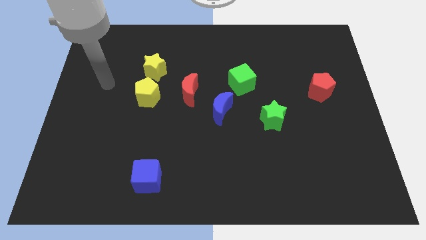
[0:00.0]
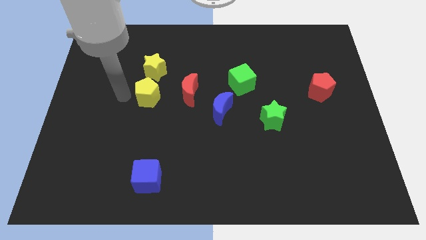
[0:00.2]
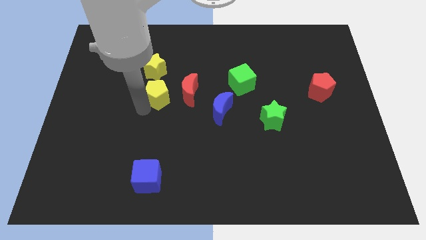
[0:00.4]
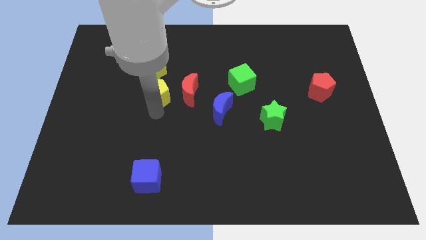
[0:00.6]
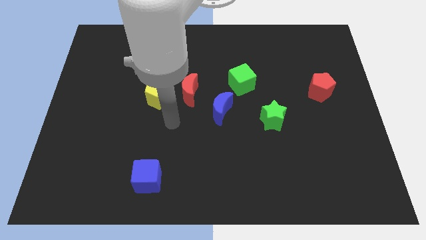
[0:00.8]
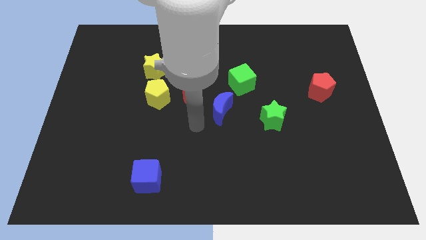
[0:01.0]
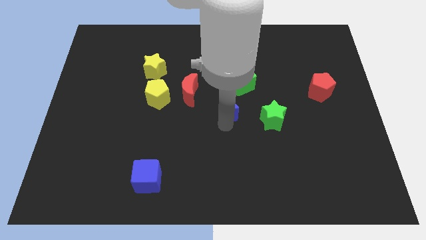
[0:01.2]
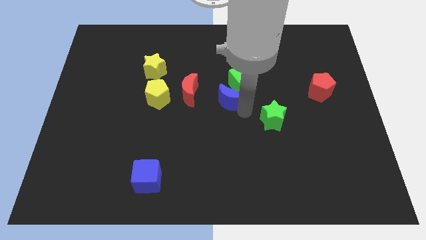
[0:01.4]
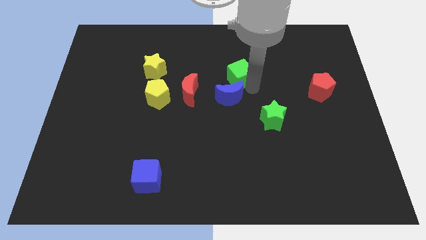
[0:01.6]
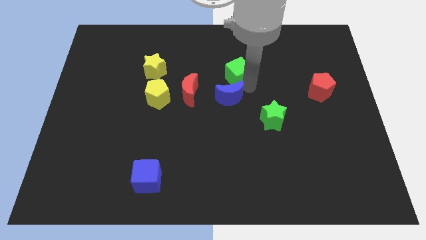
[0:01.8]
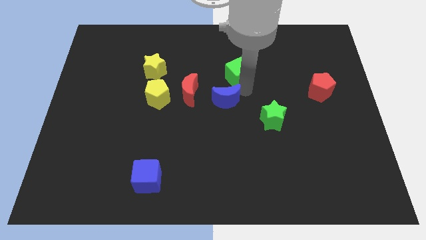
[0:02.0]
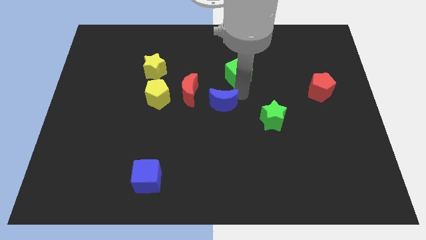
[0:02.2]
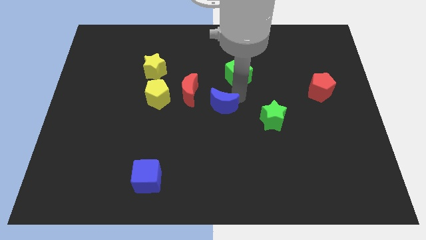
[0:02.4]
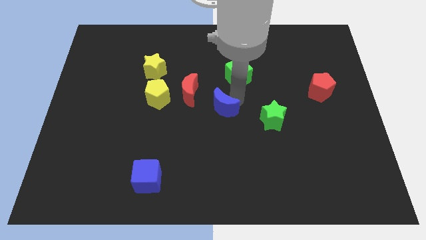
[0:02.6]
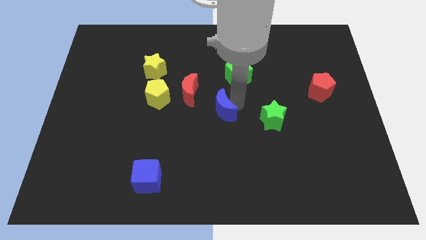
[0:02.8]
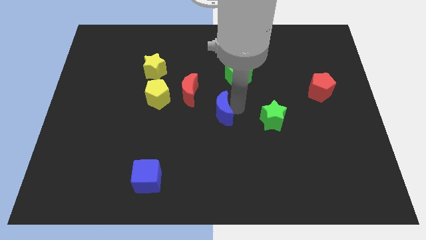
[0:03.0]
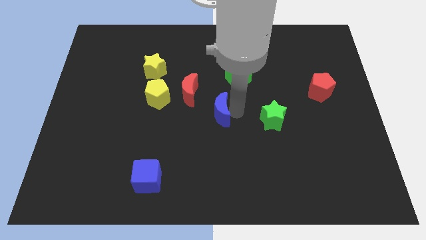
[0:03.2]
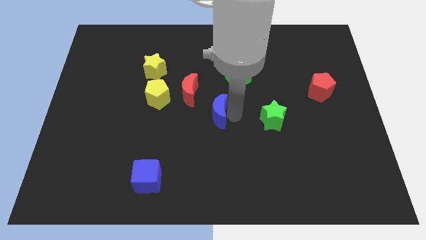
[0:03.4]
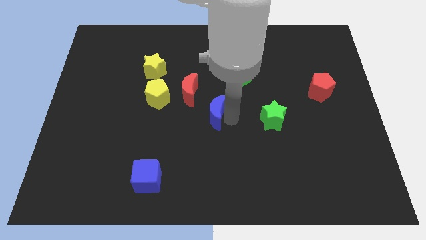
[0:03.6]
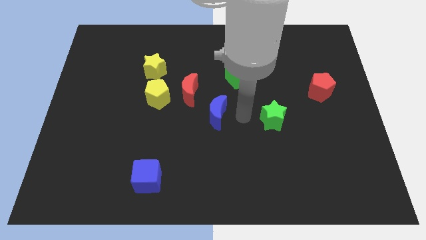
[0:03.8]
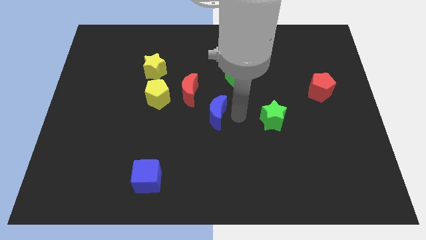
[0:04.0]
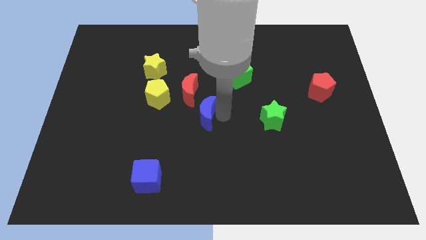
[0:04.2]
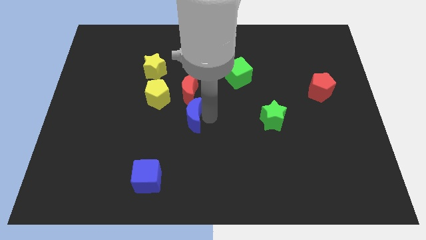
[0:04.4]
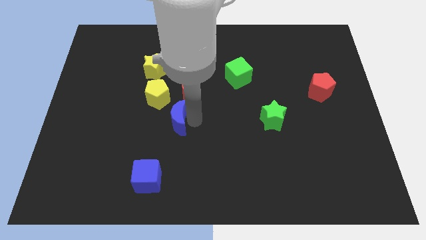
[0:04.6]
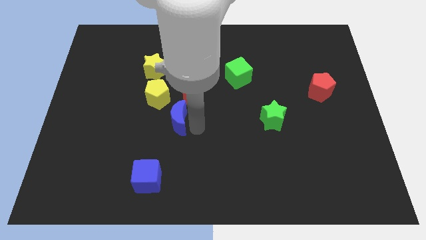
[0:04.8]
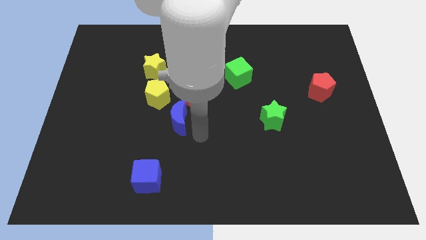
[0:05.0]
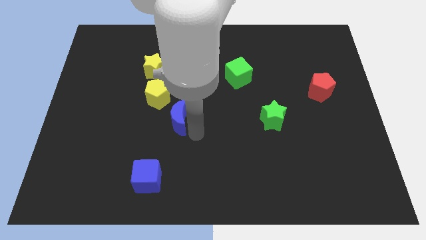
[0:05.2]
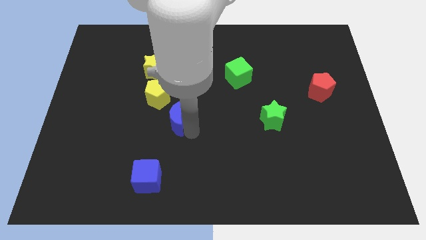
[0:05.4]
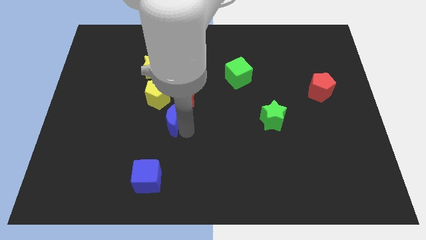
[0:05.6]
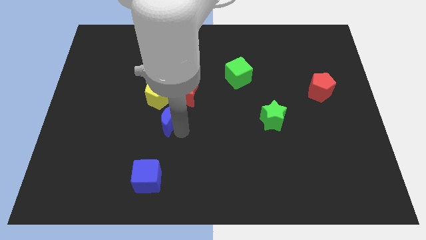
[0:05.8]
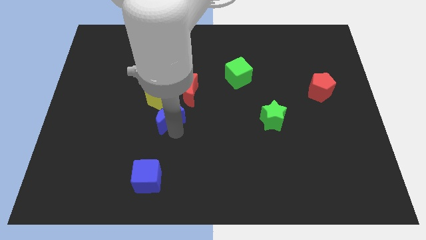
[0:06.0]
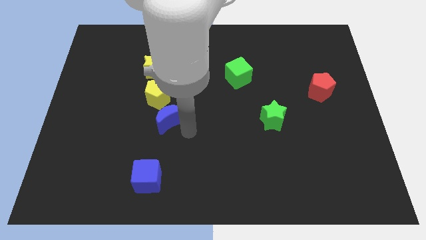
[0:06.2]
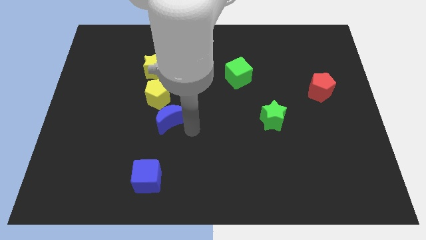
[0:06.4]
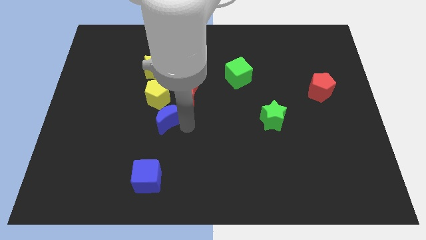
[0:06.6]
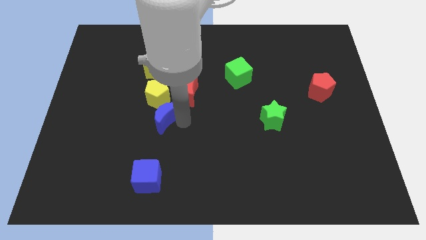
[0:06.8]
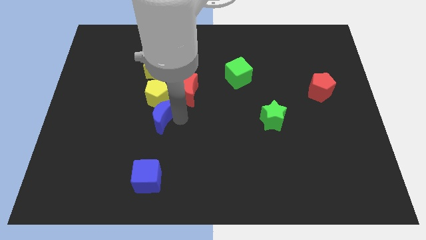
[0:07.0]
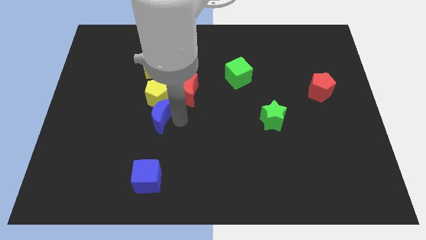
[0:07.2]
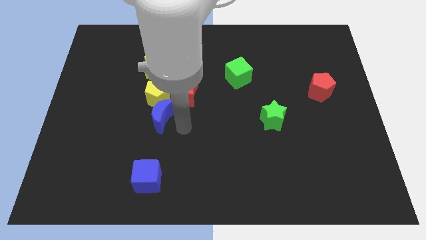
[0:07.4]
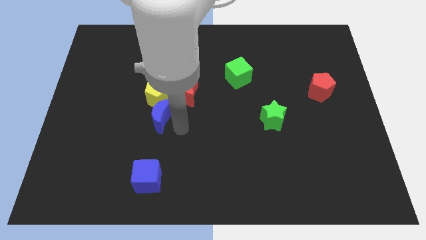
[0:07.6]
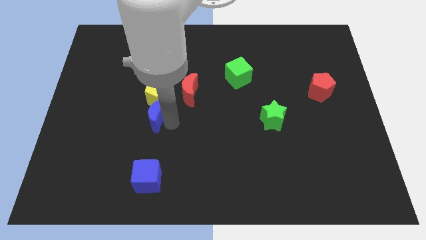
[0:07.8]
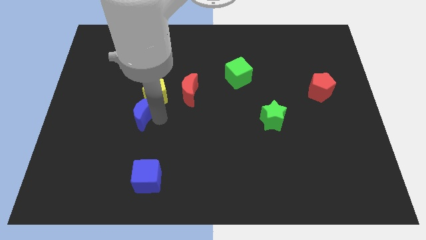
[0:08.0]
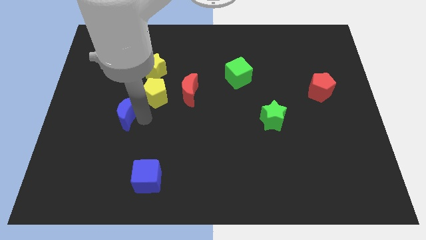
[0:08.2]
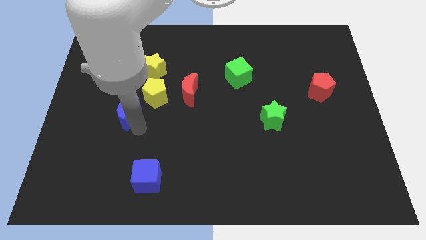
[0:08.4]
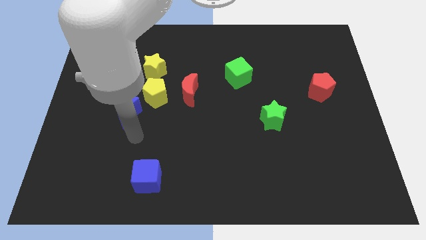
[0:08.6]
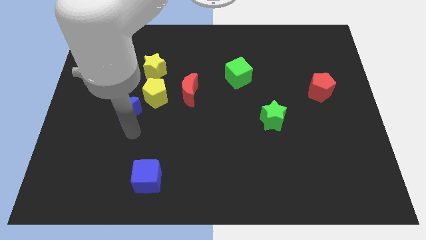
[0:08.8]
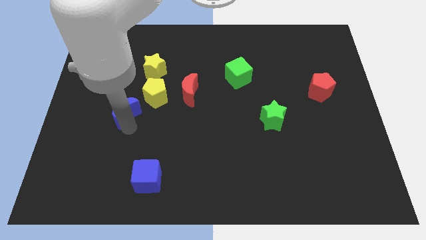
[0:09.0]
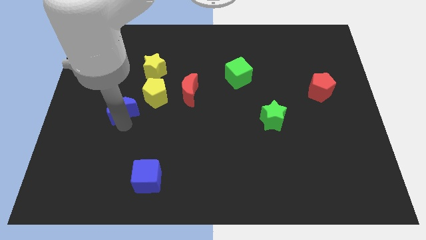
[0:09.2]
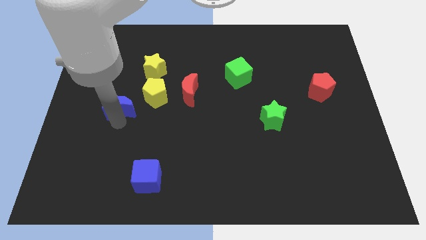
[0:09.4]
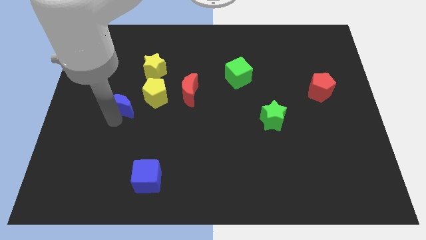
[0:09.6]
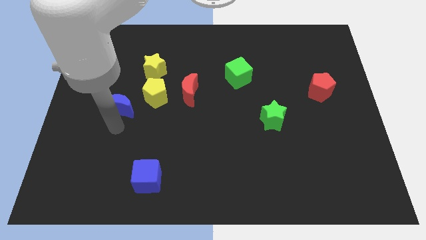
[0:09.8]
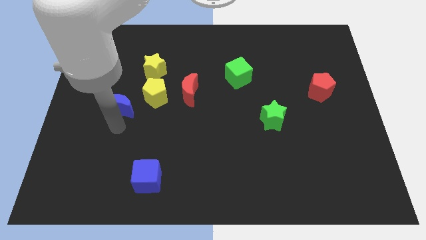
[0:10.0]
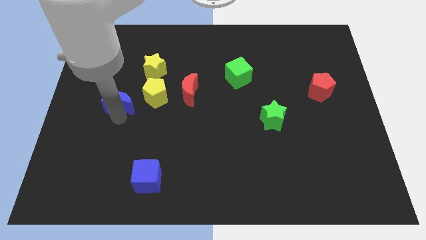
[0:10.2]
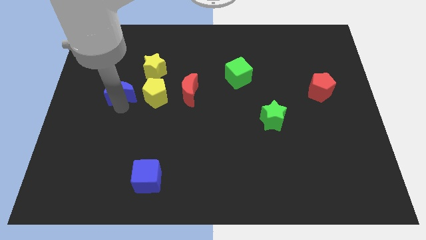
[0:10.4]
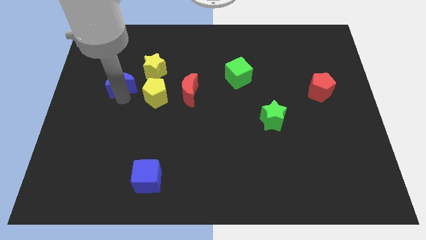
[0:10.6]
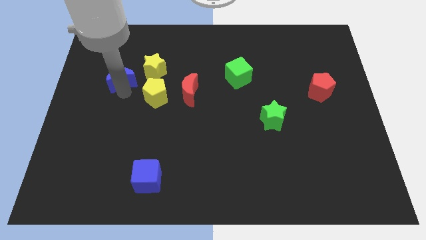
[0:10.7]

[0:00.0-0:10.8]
slide the blue moon to the left side of the yellow star

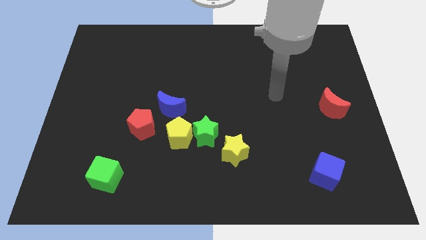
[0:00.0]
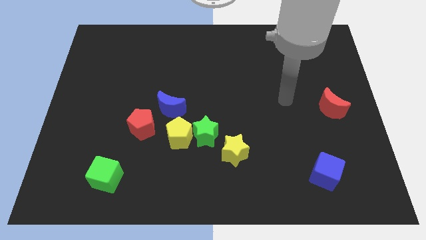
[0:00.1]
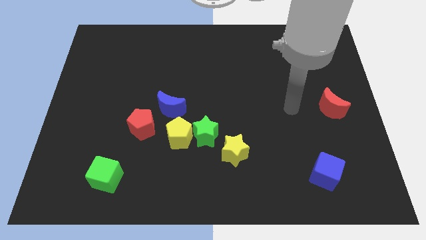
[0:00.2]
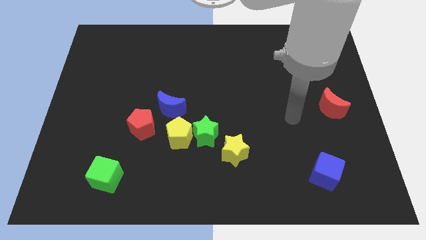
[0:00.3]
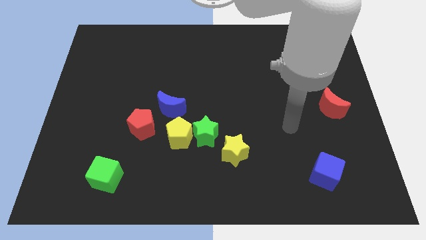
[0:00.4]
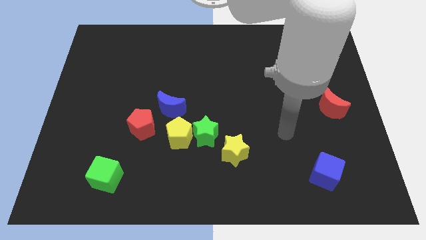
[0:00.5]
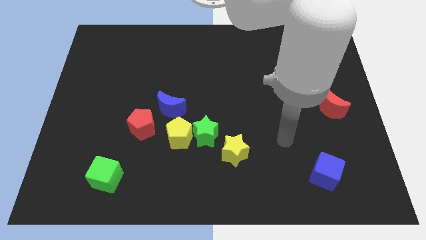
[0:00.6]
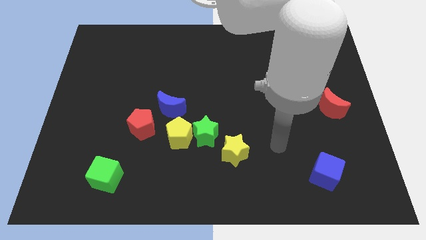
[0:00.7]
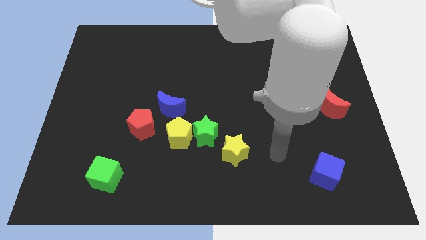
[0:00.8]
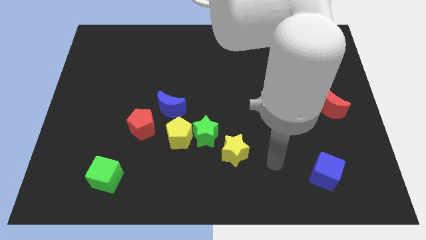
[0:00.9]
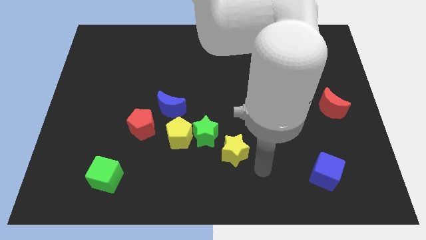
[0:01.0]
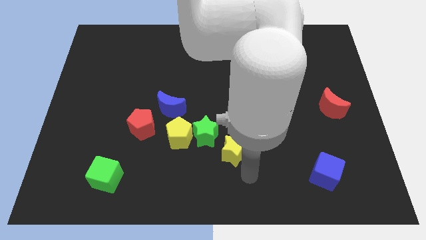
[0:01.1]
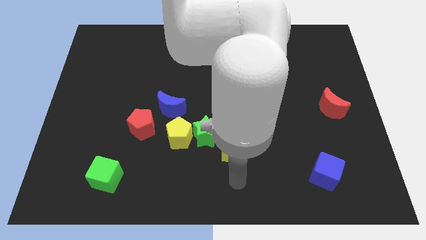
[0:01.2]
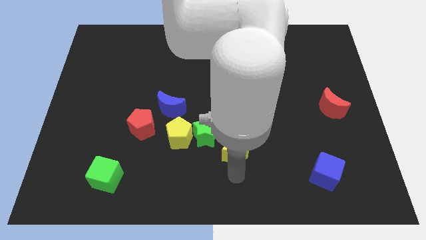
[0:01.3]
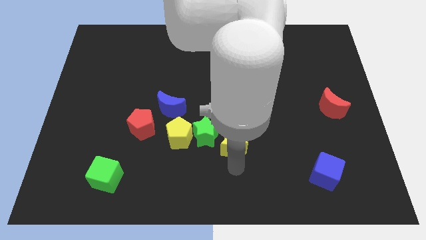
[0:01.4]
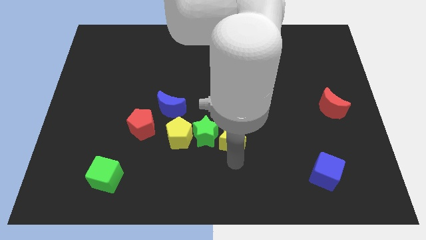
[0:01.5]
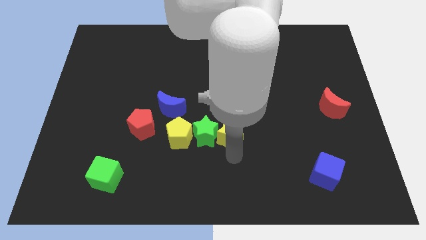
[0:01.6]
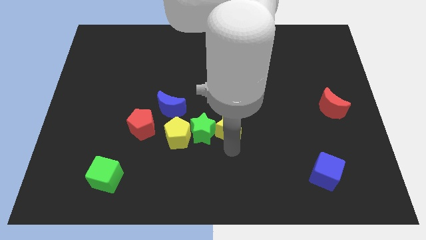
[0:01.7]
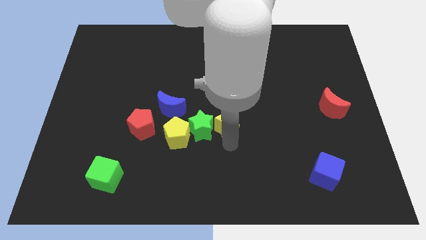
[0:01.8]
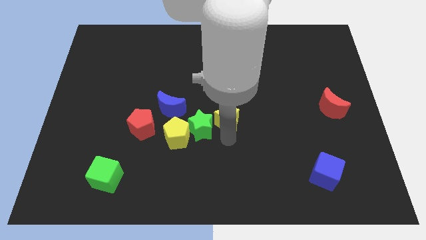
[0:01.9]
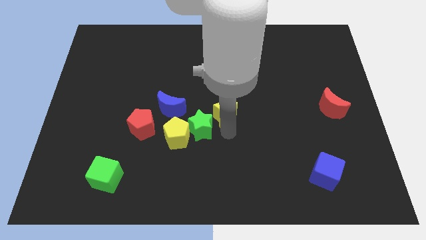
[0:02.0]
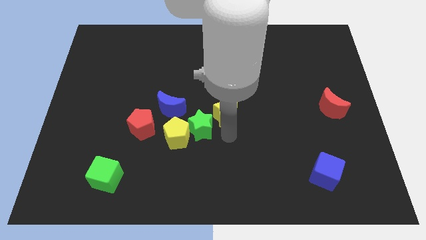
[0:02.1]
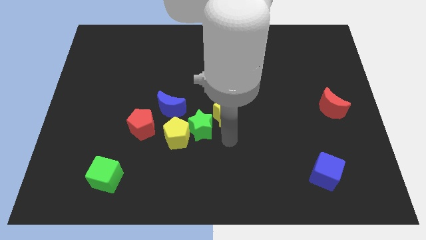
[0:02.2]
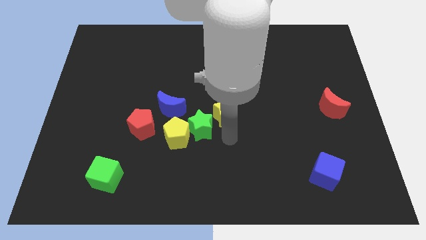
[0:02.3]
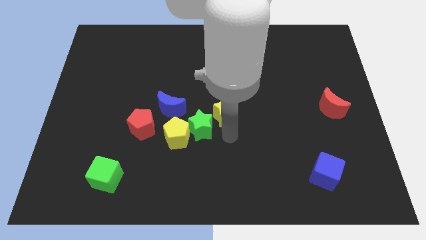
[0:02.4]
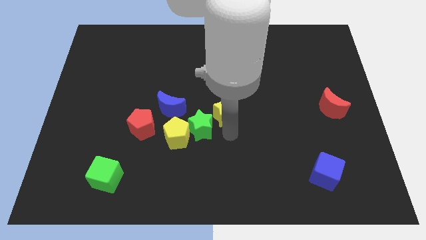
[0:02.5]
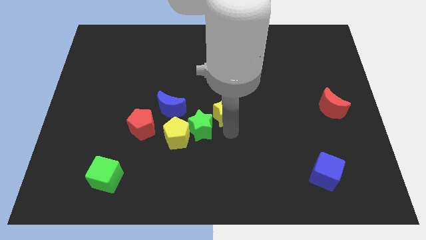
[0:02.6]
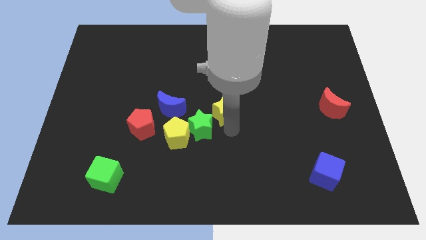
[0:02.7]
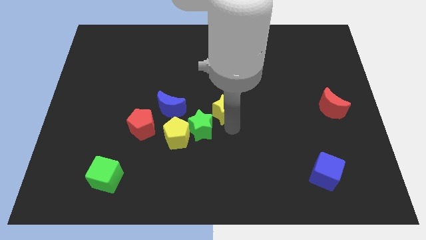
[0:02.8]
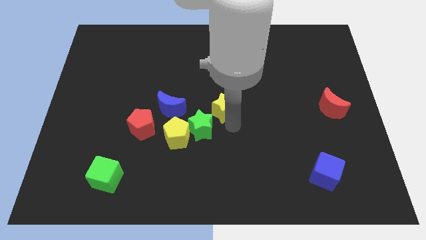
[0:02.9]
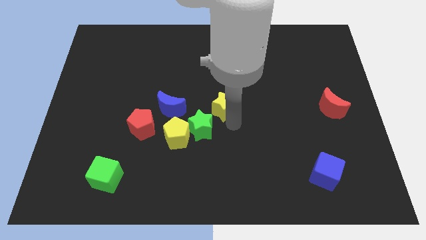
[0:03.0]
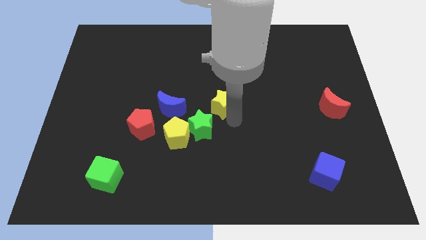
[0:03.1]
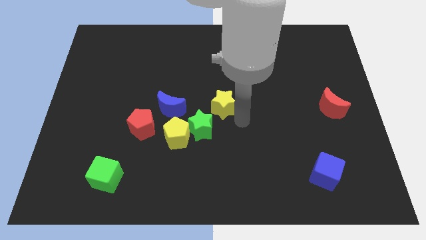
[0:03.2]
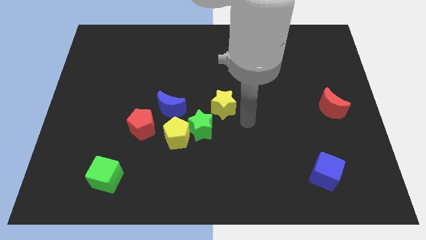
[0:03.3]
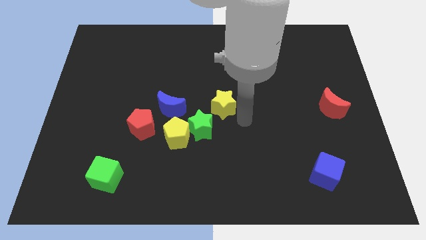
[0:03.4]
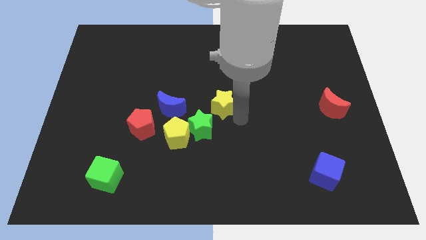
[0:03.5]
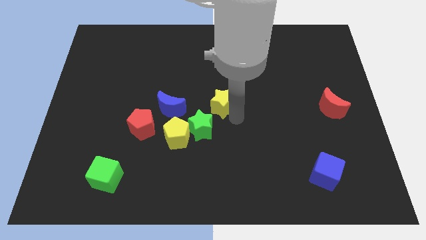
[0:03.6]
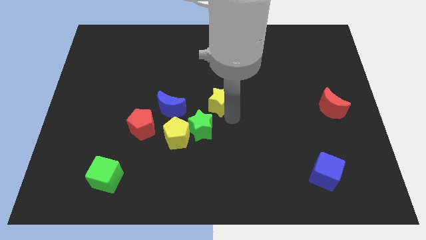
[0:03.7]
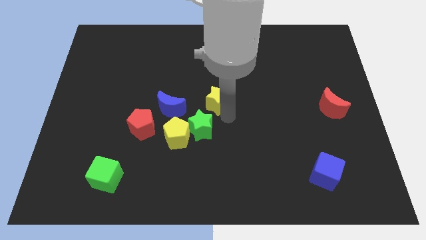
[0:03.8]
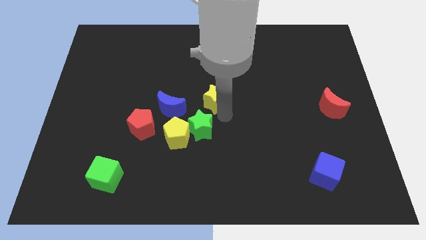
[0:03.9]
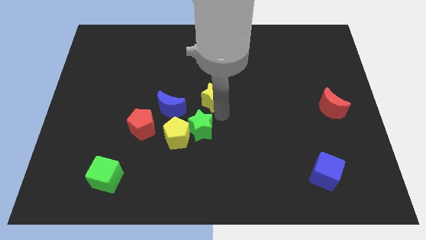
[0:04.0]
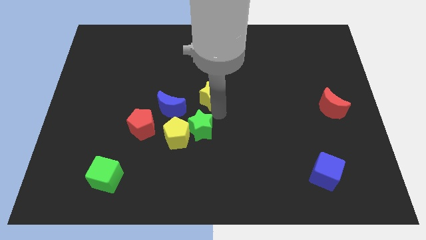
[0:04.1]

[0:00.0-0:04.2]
slide the yellow star to the top right of the blue moon
